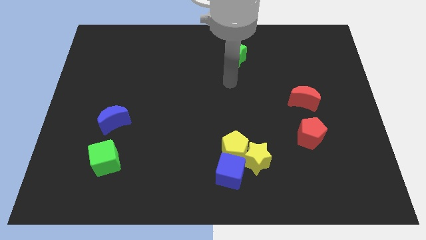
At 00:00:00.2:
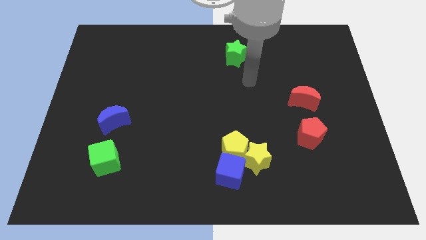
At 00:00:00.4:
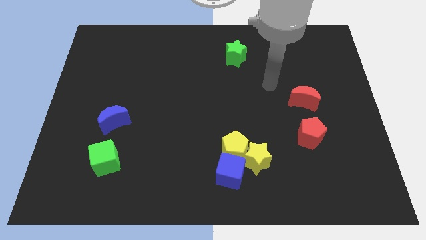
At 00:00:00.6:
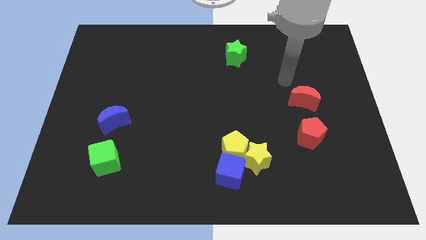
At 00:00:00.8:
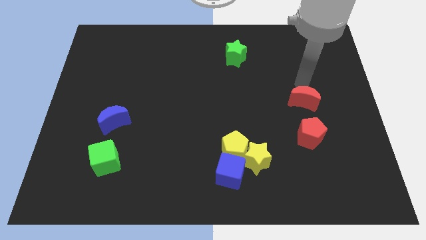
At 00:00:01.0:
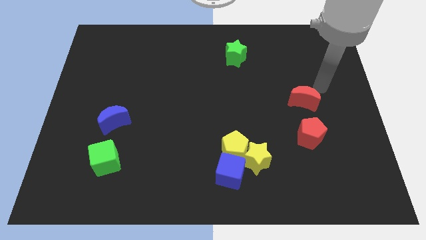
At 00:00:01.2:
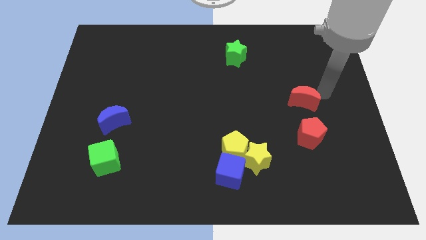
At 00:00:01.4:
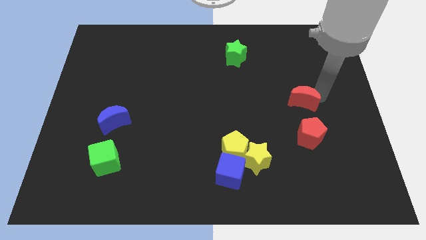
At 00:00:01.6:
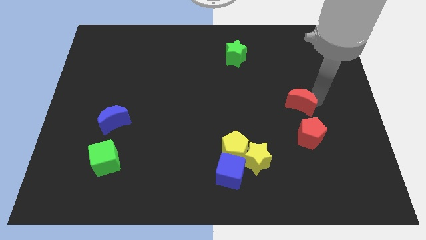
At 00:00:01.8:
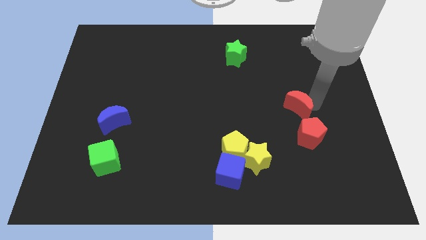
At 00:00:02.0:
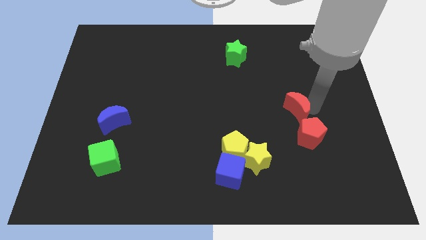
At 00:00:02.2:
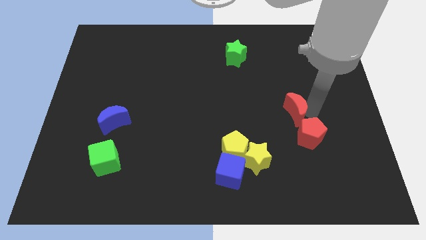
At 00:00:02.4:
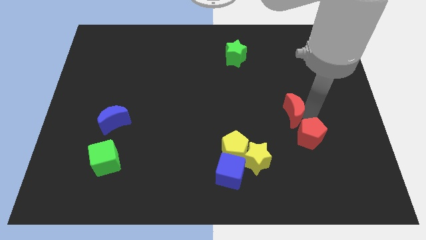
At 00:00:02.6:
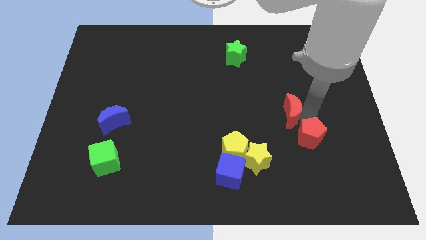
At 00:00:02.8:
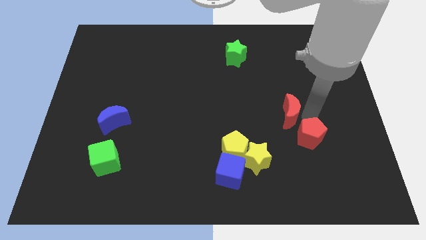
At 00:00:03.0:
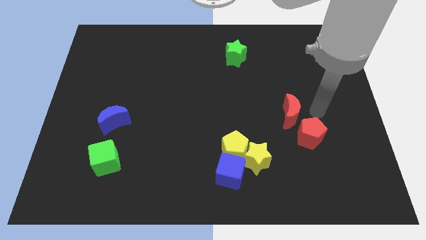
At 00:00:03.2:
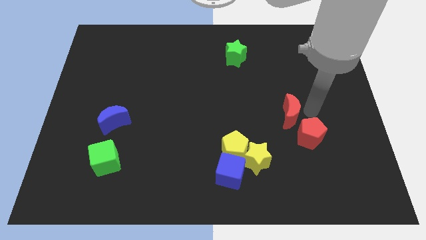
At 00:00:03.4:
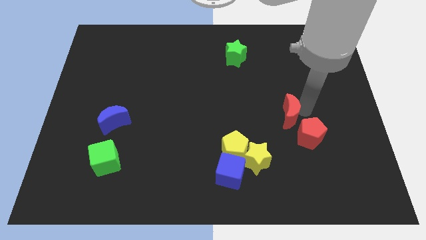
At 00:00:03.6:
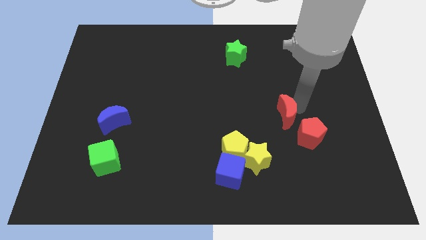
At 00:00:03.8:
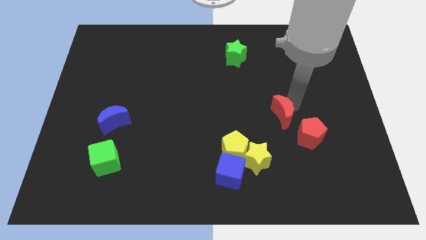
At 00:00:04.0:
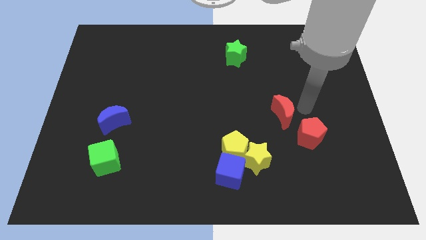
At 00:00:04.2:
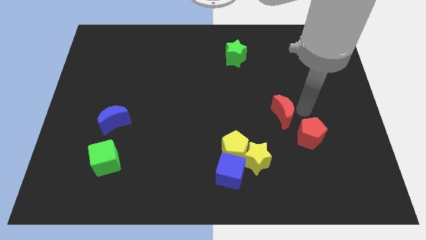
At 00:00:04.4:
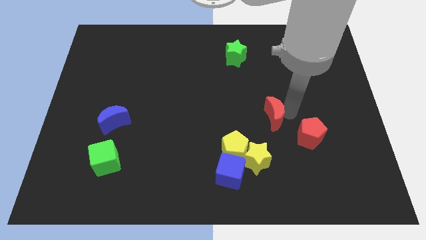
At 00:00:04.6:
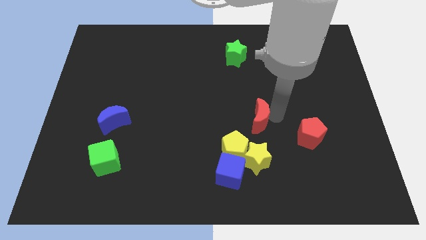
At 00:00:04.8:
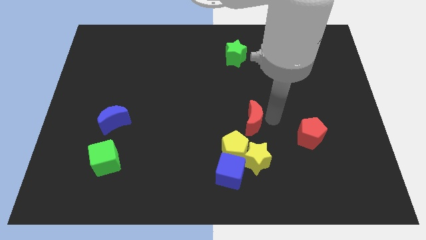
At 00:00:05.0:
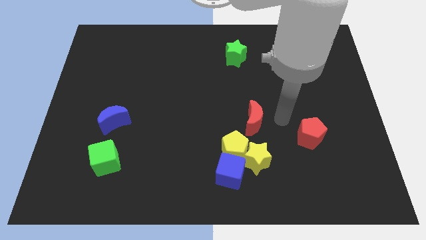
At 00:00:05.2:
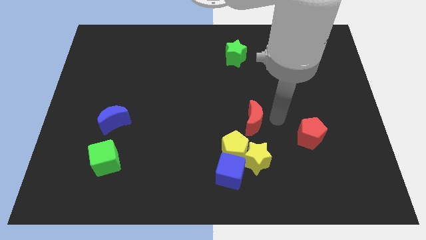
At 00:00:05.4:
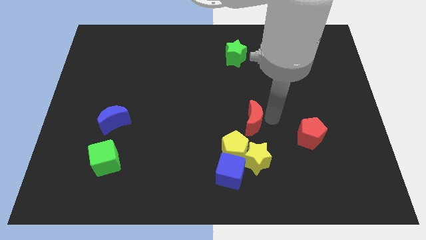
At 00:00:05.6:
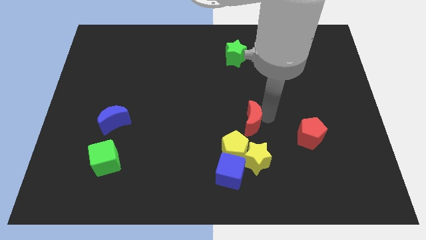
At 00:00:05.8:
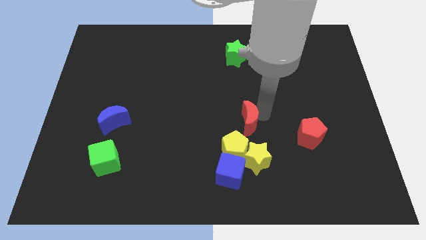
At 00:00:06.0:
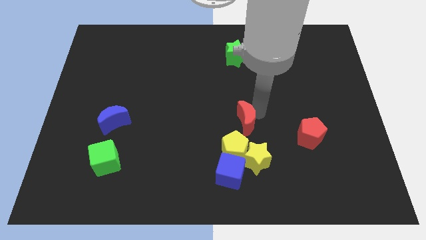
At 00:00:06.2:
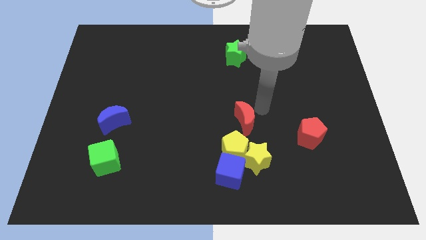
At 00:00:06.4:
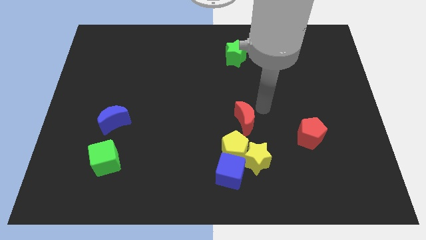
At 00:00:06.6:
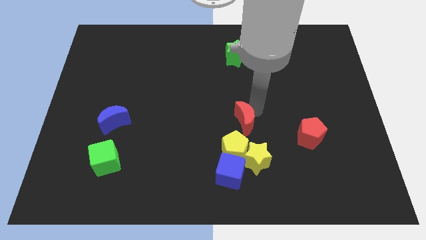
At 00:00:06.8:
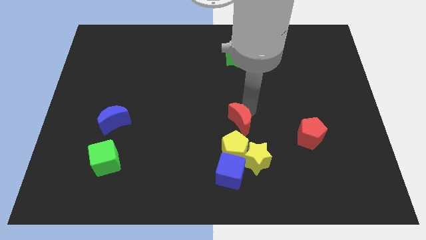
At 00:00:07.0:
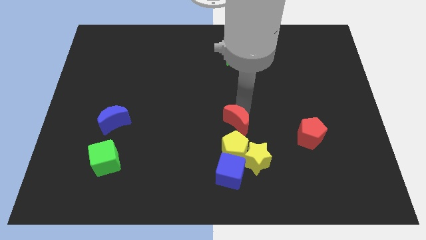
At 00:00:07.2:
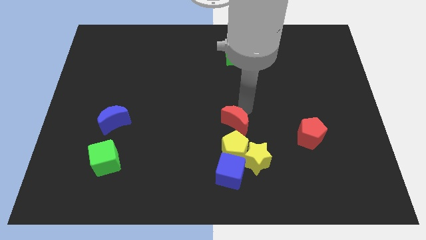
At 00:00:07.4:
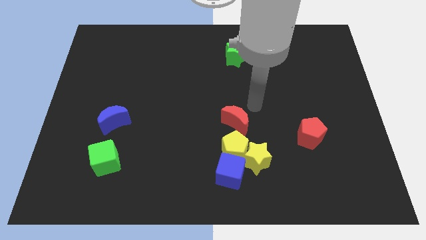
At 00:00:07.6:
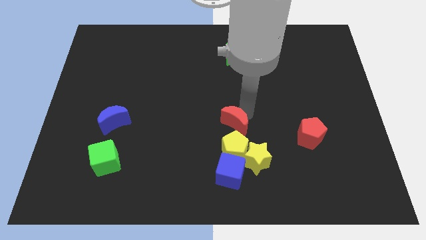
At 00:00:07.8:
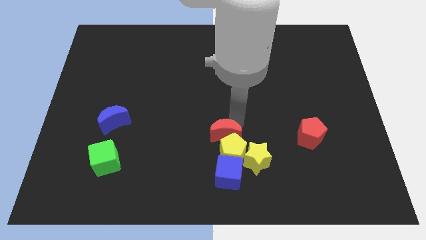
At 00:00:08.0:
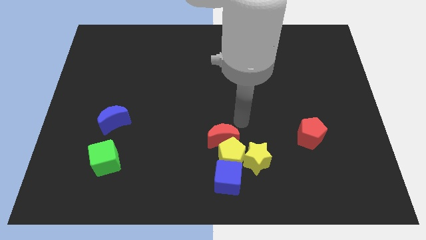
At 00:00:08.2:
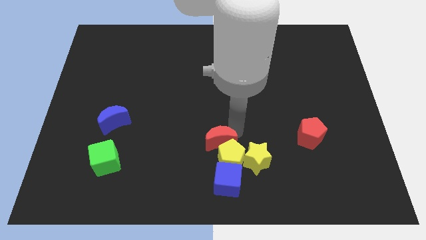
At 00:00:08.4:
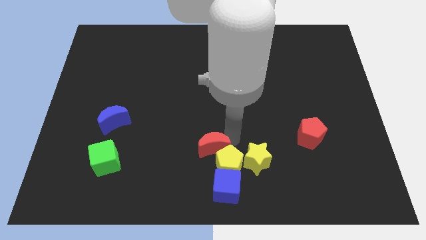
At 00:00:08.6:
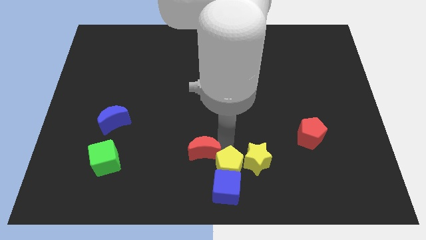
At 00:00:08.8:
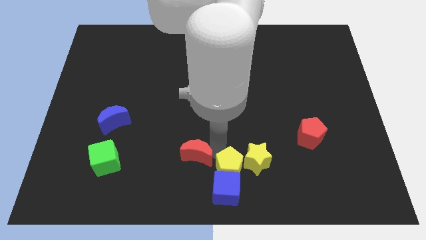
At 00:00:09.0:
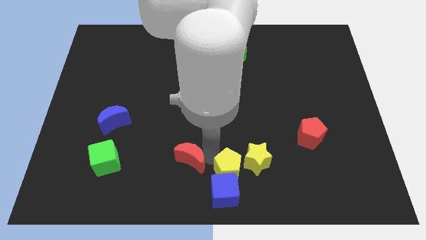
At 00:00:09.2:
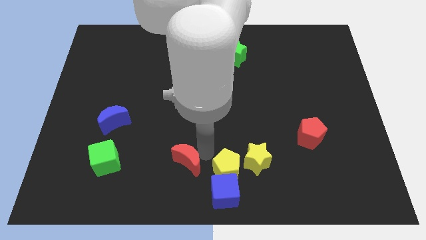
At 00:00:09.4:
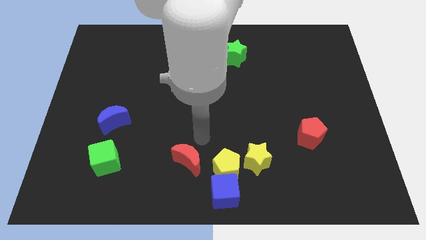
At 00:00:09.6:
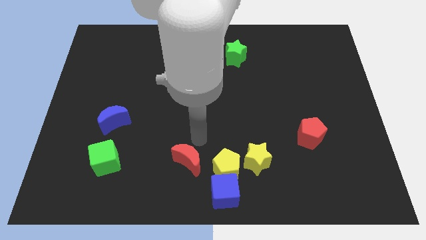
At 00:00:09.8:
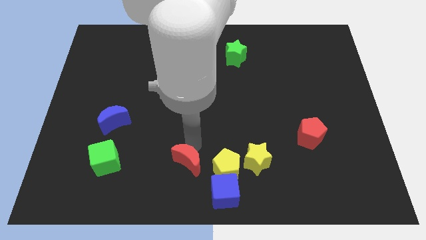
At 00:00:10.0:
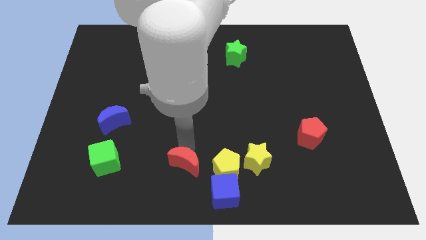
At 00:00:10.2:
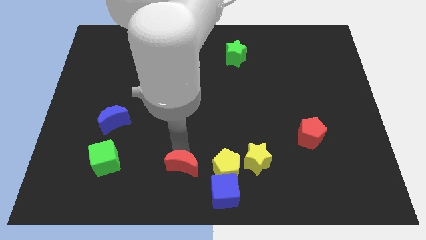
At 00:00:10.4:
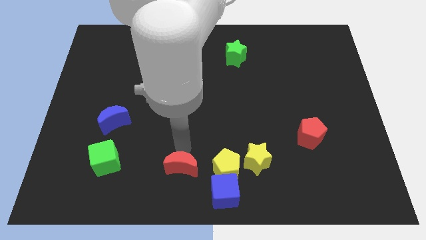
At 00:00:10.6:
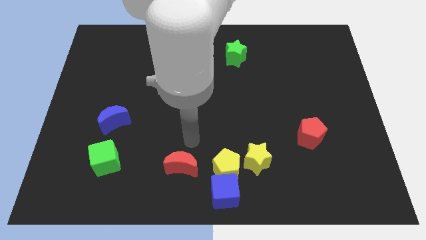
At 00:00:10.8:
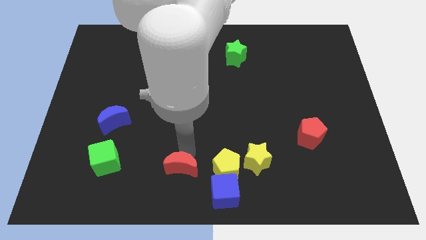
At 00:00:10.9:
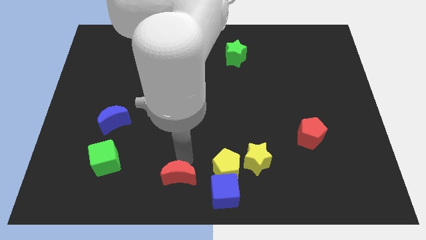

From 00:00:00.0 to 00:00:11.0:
put the red moon just left of the blue cube

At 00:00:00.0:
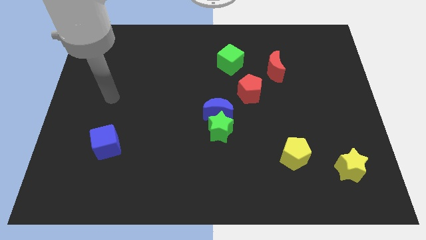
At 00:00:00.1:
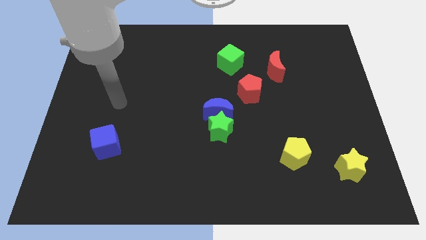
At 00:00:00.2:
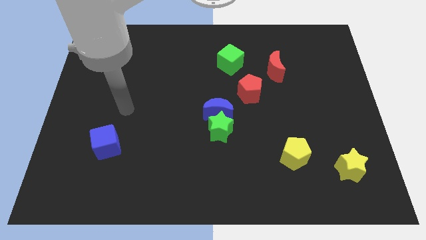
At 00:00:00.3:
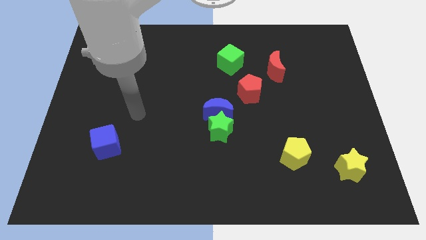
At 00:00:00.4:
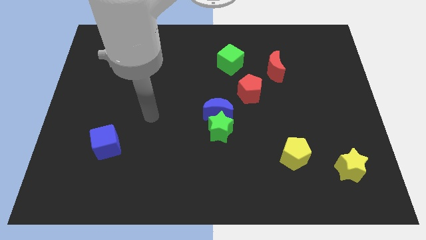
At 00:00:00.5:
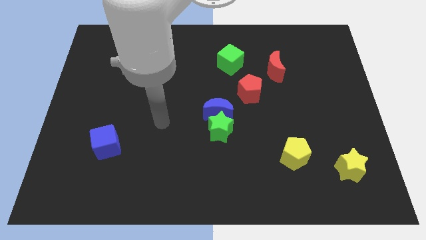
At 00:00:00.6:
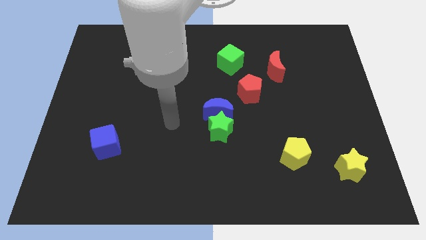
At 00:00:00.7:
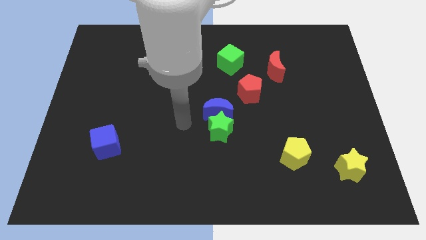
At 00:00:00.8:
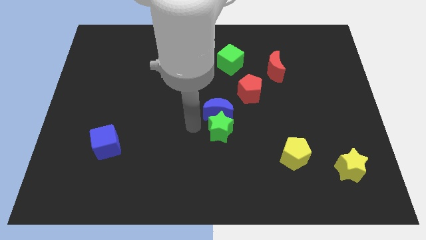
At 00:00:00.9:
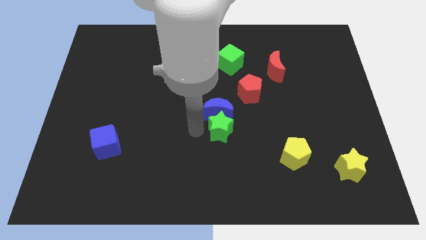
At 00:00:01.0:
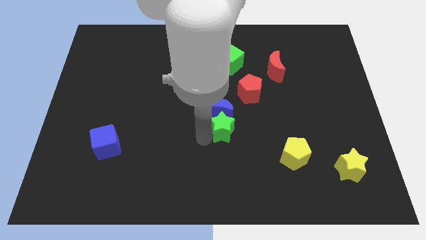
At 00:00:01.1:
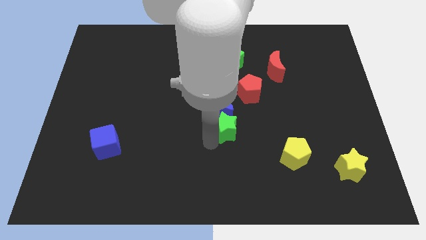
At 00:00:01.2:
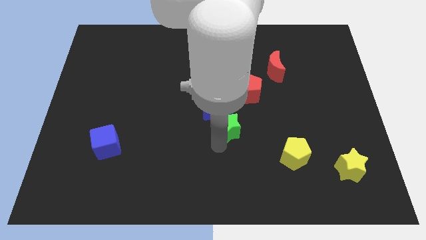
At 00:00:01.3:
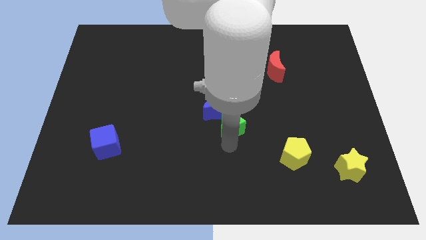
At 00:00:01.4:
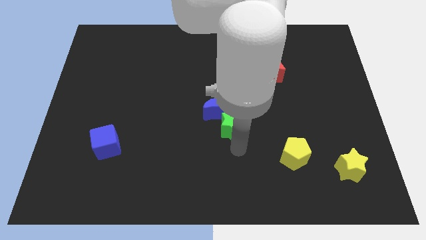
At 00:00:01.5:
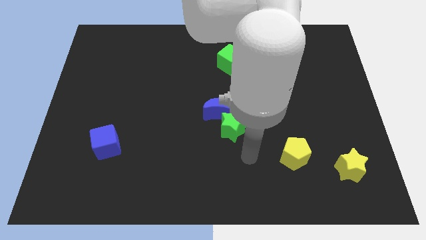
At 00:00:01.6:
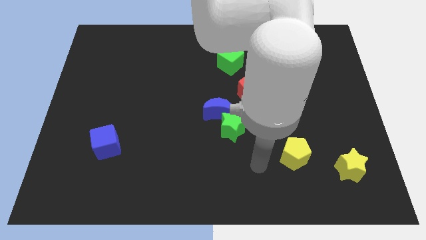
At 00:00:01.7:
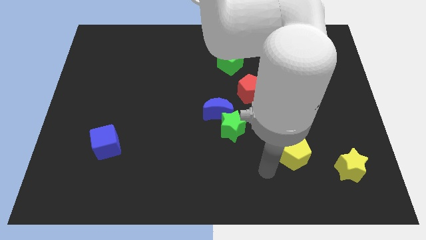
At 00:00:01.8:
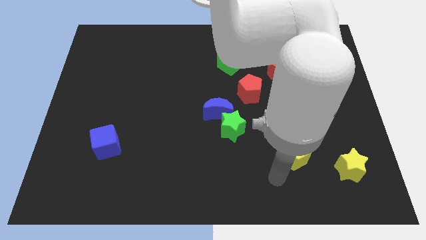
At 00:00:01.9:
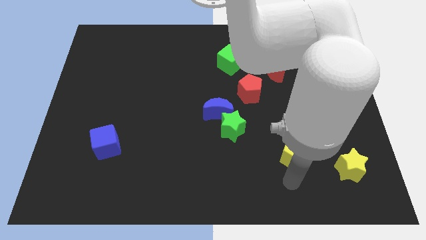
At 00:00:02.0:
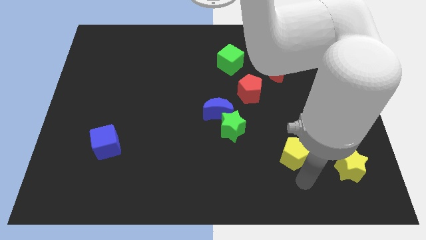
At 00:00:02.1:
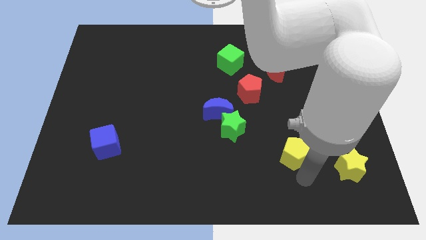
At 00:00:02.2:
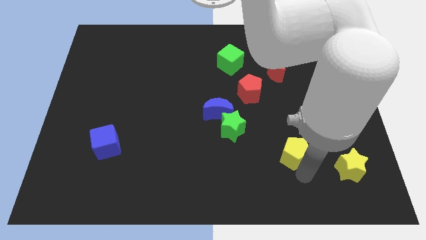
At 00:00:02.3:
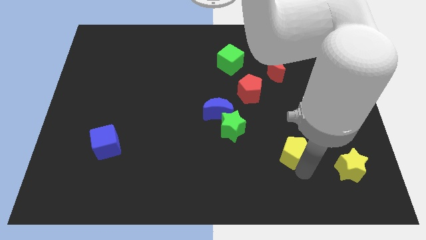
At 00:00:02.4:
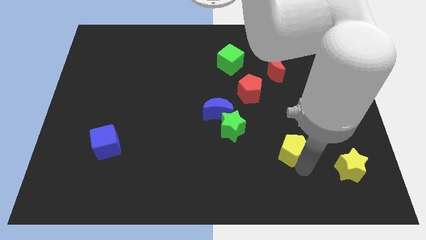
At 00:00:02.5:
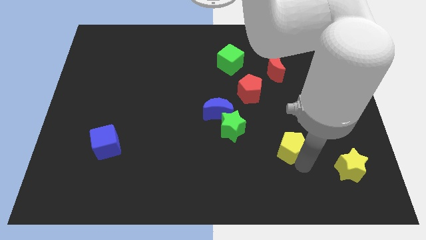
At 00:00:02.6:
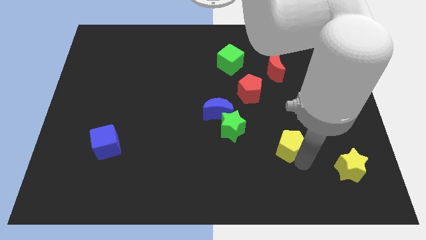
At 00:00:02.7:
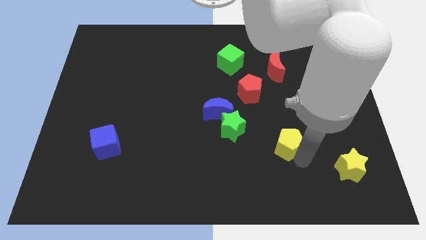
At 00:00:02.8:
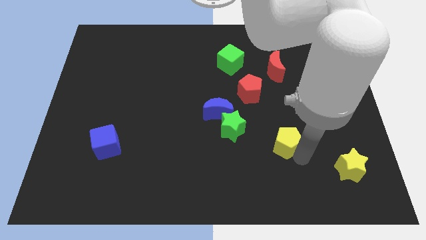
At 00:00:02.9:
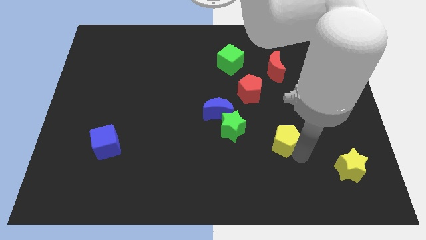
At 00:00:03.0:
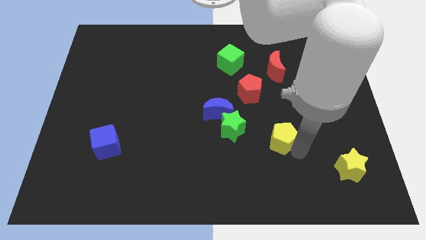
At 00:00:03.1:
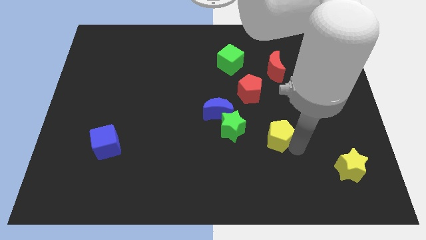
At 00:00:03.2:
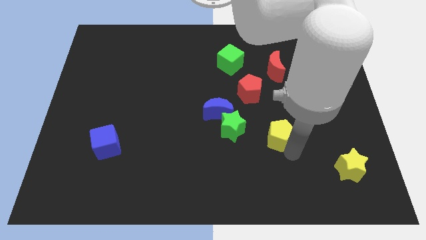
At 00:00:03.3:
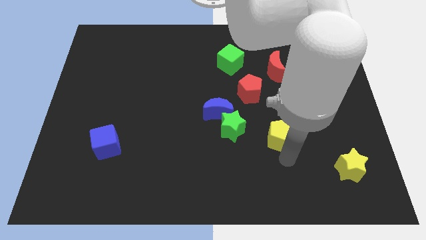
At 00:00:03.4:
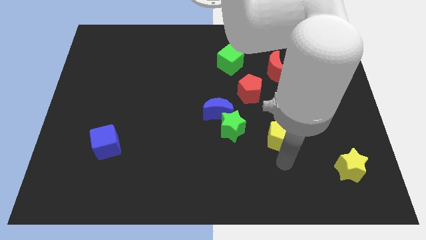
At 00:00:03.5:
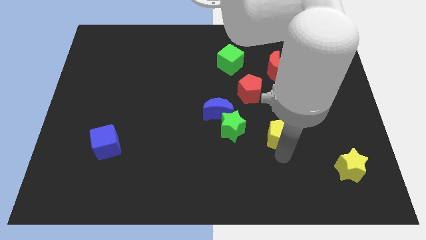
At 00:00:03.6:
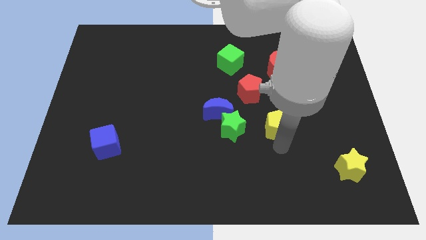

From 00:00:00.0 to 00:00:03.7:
slide the yellow pentagon to the bottom right of the red pentagon
